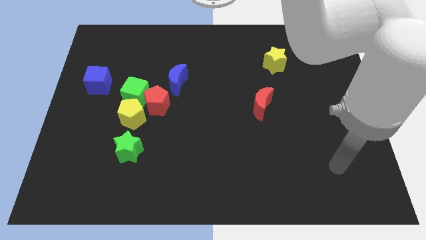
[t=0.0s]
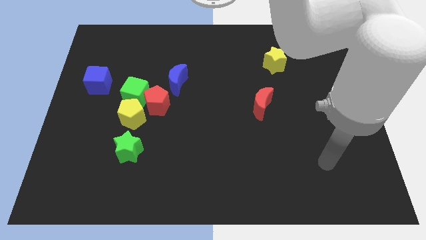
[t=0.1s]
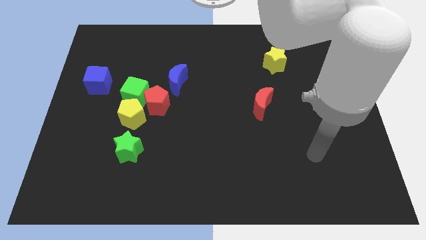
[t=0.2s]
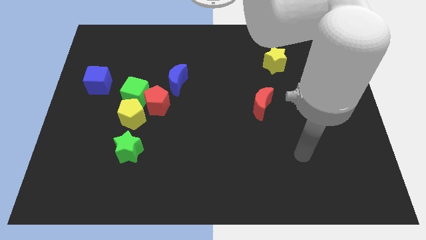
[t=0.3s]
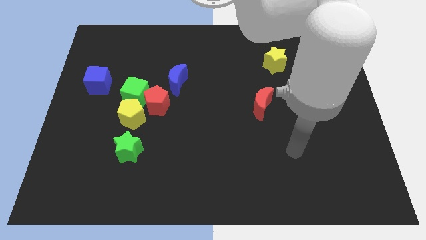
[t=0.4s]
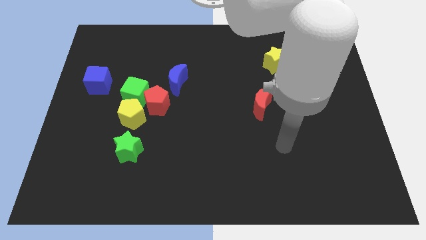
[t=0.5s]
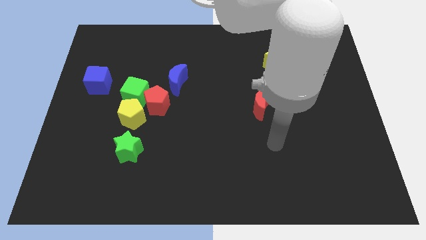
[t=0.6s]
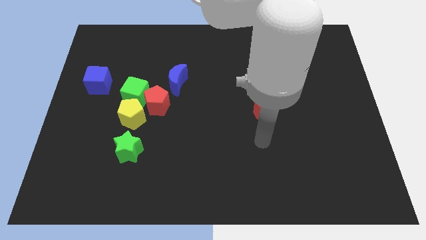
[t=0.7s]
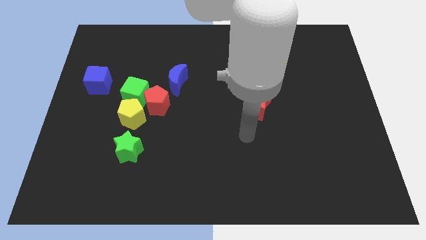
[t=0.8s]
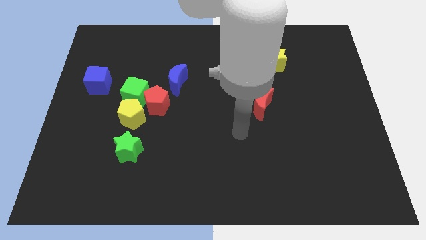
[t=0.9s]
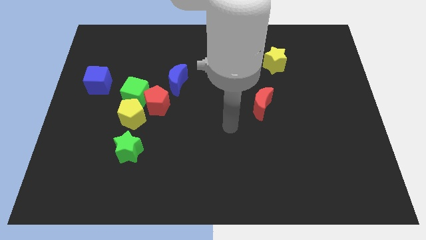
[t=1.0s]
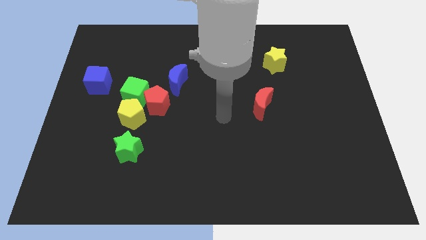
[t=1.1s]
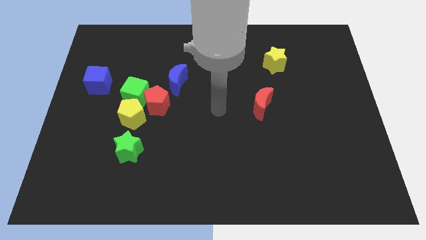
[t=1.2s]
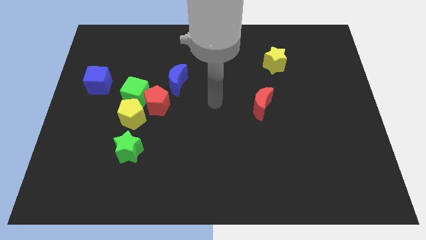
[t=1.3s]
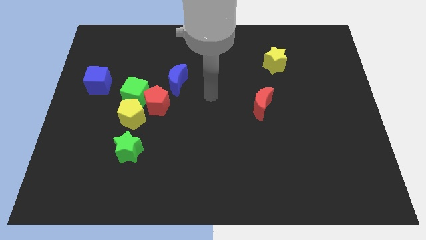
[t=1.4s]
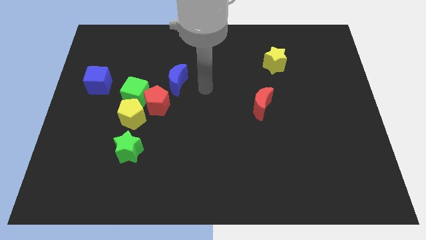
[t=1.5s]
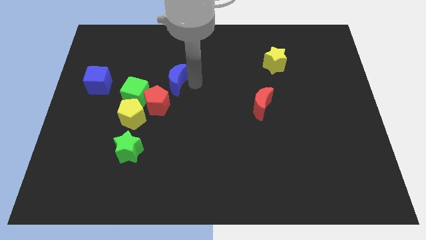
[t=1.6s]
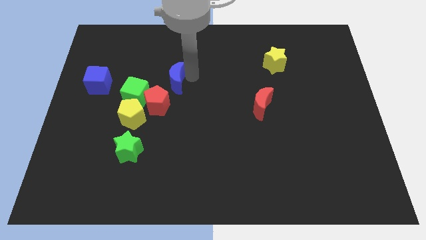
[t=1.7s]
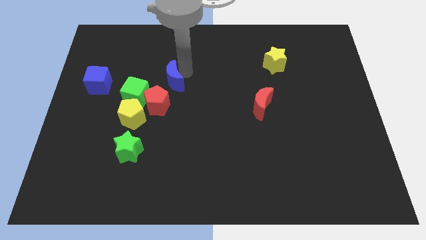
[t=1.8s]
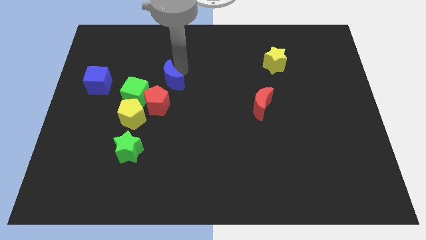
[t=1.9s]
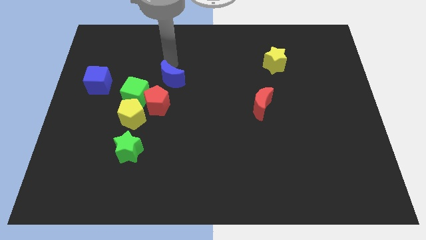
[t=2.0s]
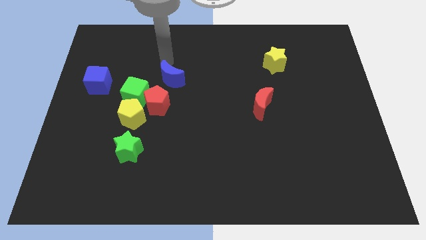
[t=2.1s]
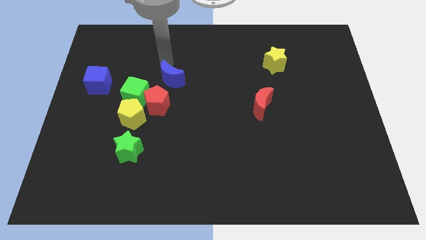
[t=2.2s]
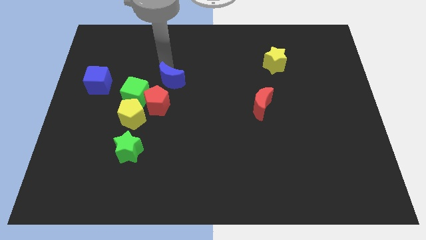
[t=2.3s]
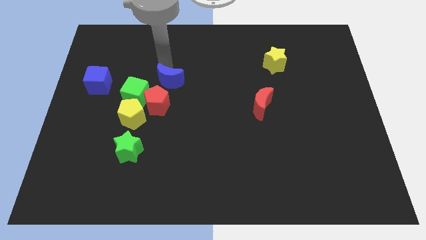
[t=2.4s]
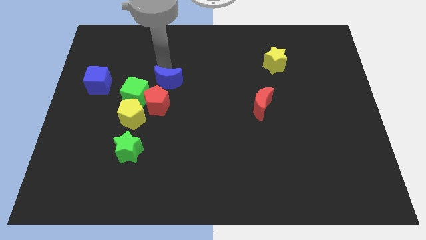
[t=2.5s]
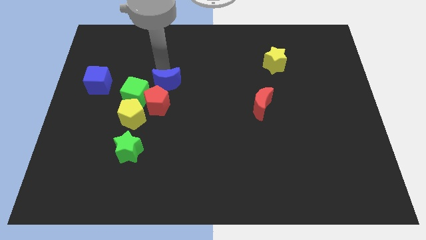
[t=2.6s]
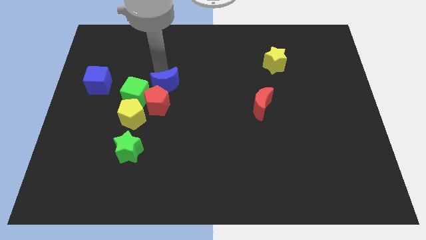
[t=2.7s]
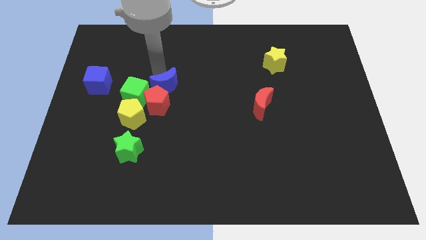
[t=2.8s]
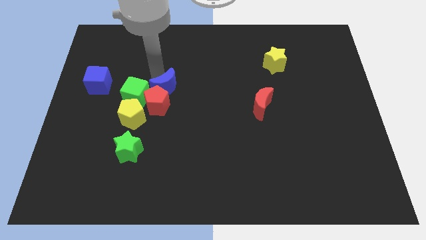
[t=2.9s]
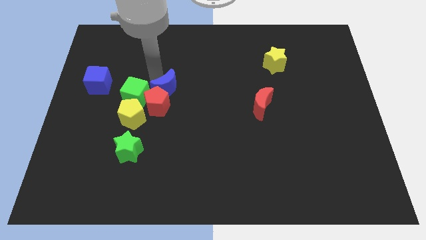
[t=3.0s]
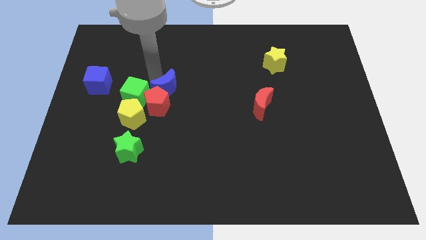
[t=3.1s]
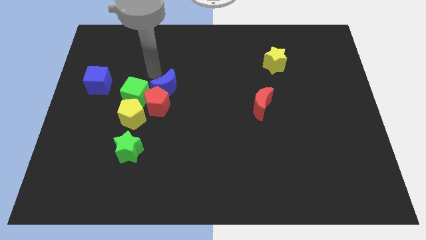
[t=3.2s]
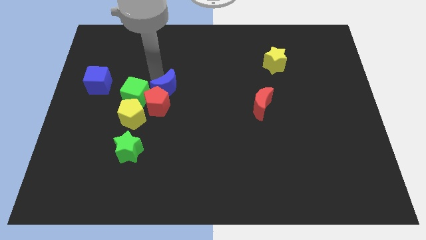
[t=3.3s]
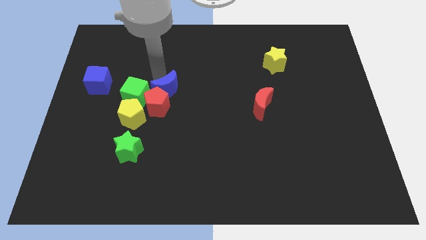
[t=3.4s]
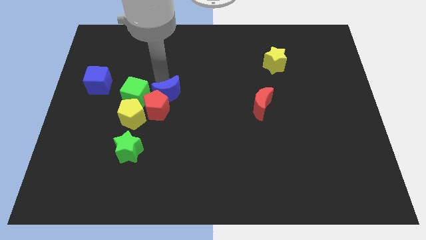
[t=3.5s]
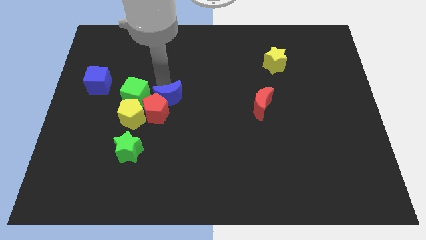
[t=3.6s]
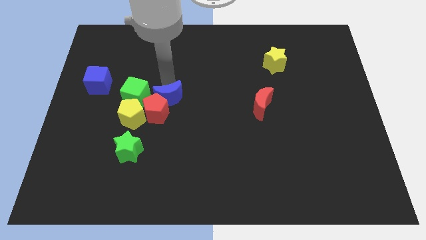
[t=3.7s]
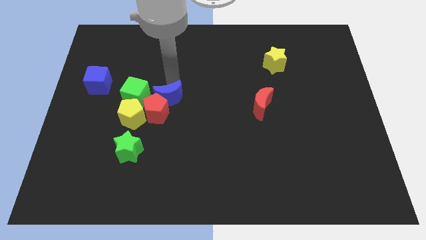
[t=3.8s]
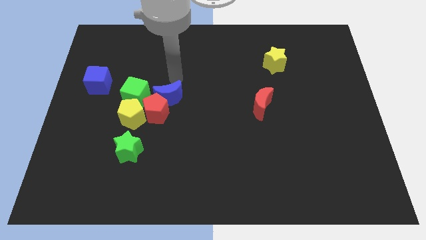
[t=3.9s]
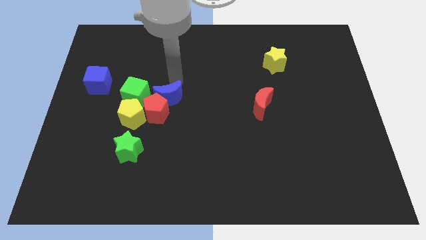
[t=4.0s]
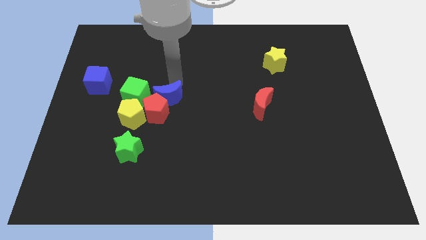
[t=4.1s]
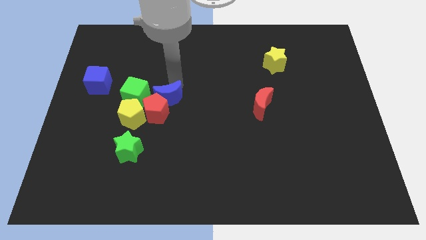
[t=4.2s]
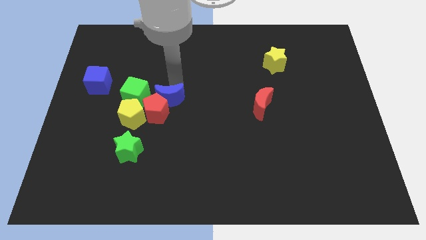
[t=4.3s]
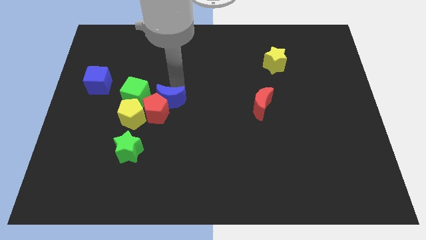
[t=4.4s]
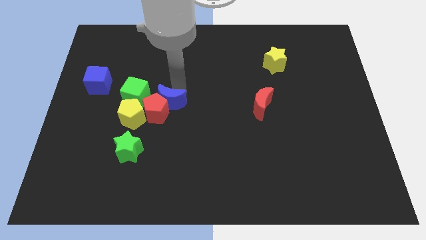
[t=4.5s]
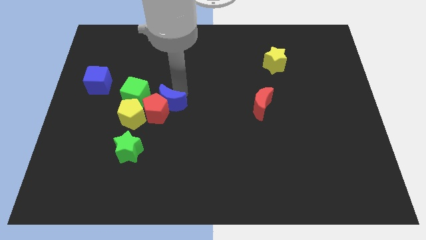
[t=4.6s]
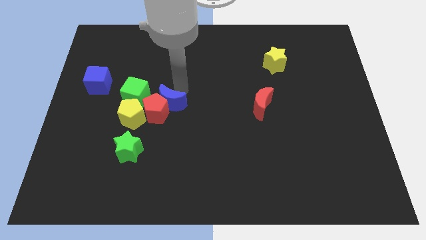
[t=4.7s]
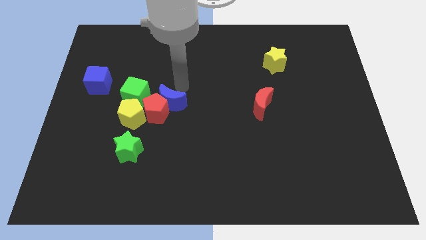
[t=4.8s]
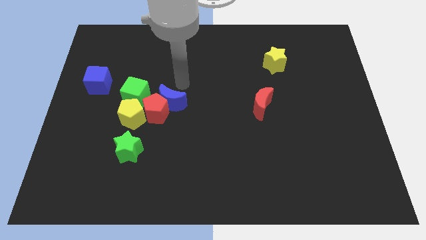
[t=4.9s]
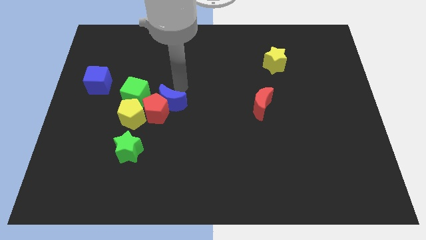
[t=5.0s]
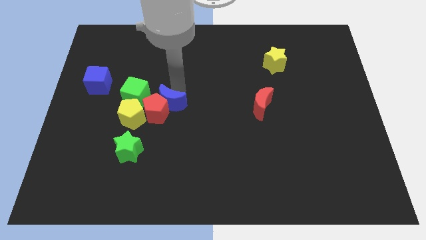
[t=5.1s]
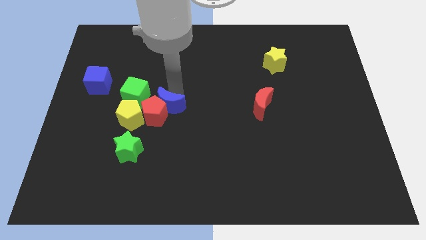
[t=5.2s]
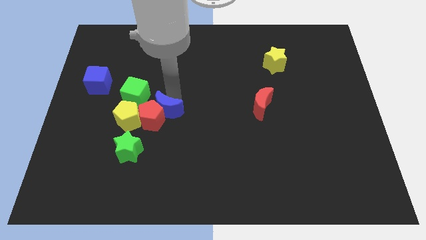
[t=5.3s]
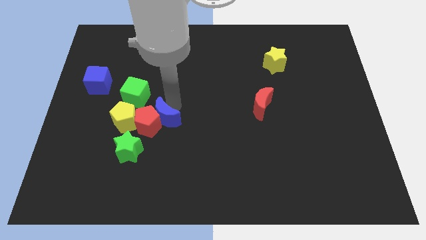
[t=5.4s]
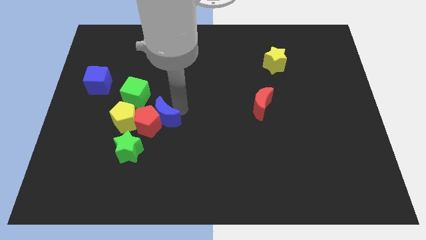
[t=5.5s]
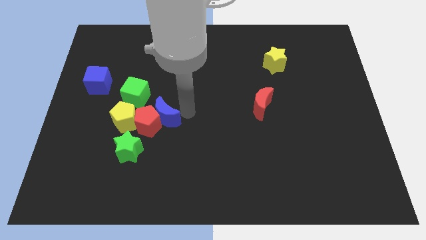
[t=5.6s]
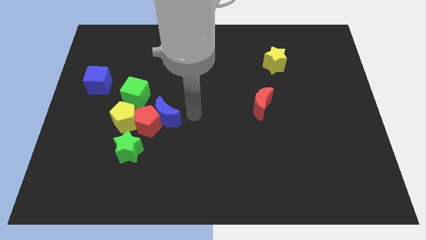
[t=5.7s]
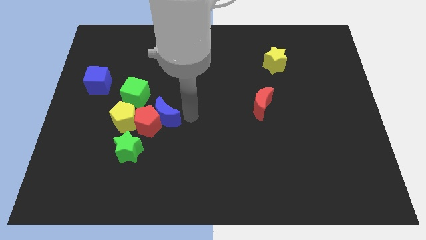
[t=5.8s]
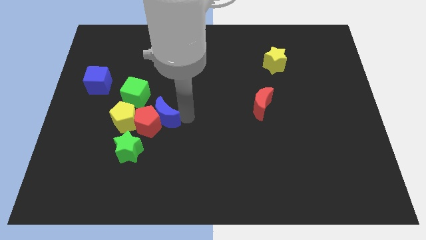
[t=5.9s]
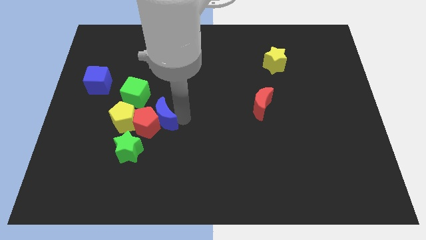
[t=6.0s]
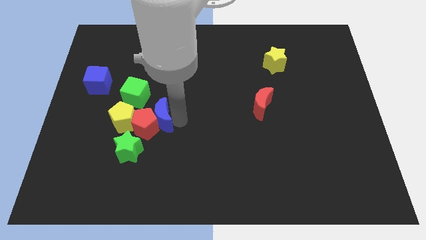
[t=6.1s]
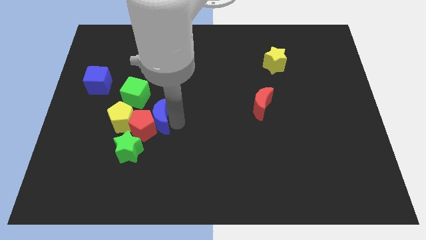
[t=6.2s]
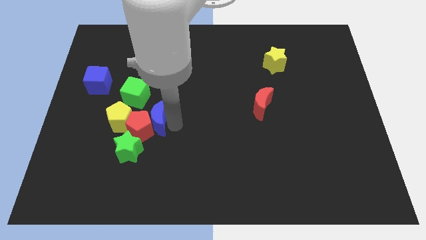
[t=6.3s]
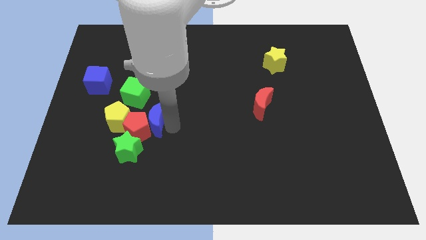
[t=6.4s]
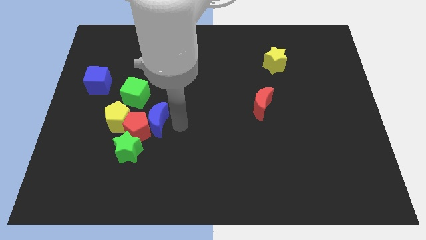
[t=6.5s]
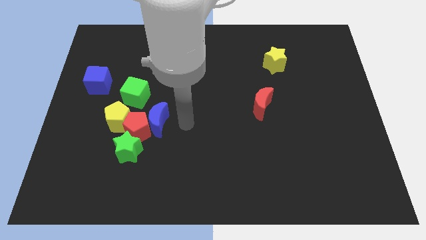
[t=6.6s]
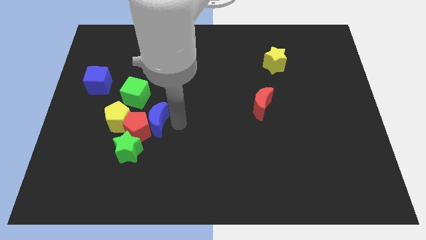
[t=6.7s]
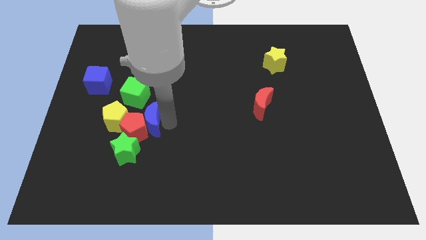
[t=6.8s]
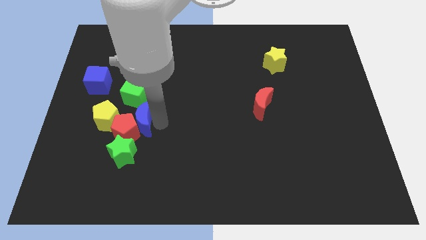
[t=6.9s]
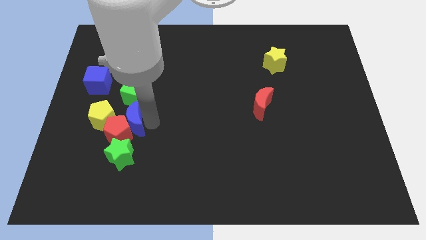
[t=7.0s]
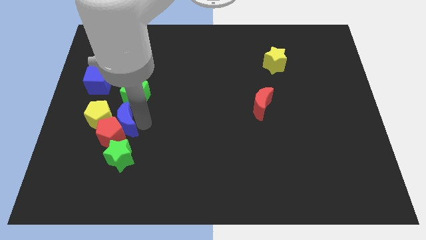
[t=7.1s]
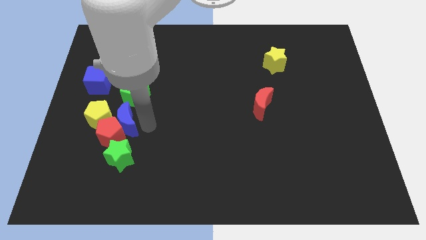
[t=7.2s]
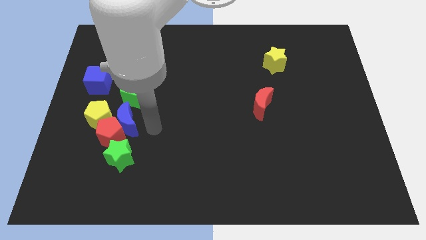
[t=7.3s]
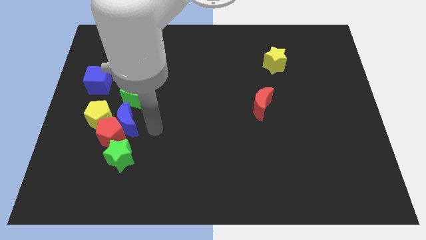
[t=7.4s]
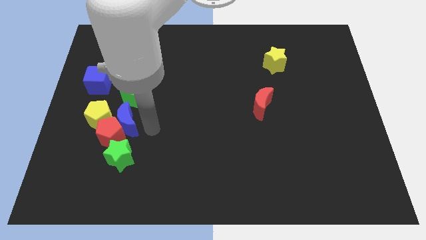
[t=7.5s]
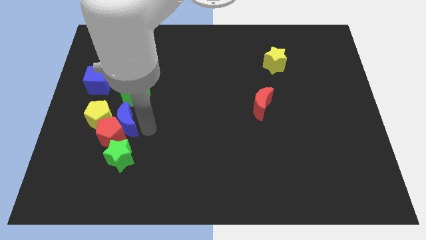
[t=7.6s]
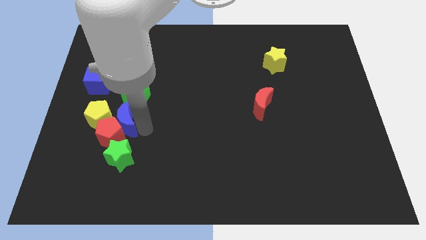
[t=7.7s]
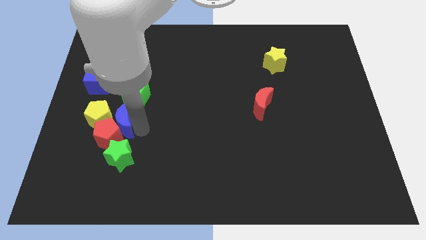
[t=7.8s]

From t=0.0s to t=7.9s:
move the blue moon close to the yellow pentagon
